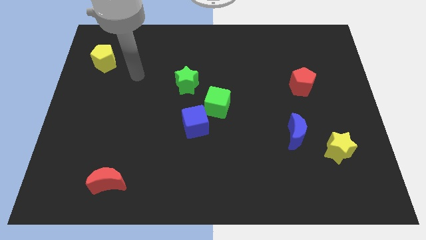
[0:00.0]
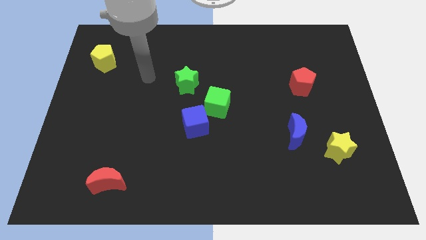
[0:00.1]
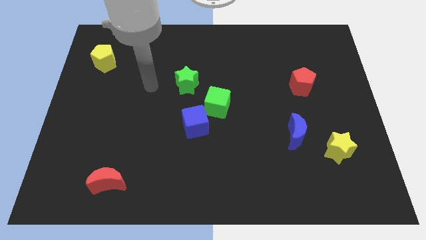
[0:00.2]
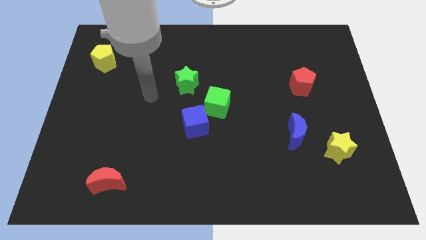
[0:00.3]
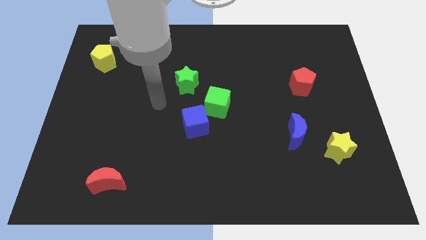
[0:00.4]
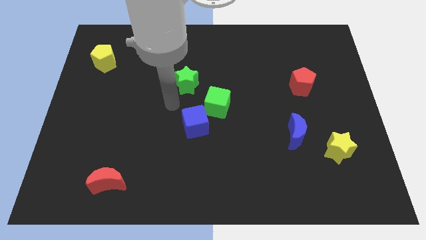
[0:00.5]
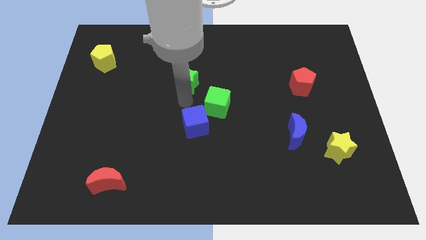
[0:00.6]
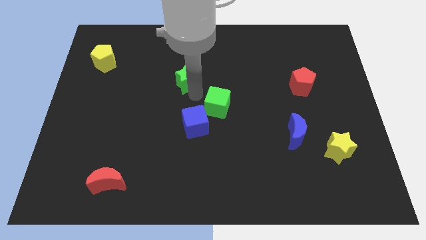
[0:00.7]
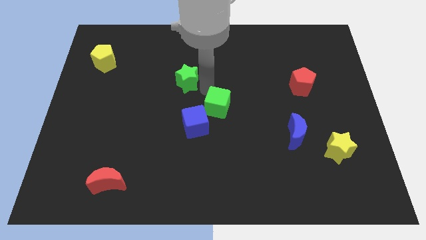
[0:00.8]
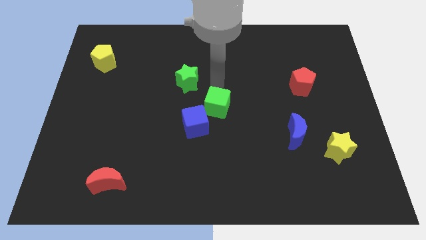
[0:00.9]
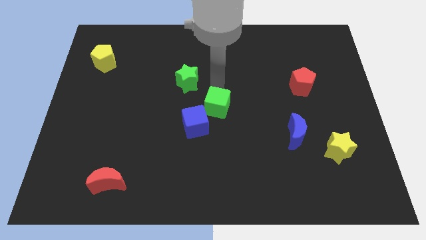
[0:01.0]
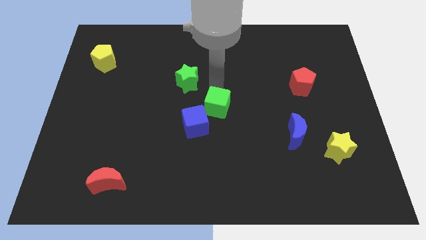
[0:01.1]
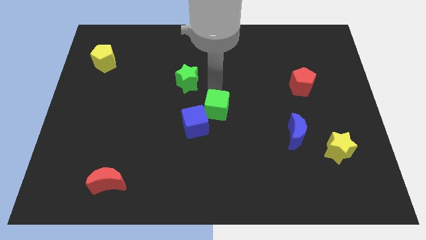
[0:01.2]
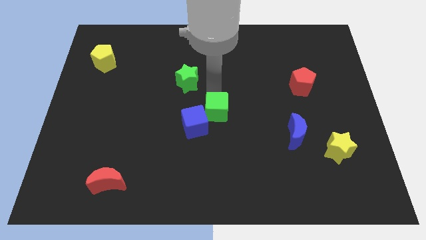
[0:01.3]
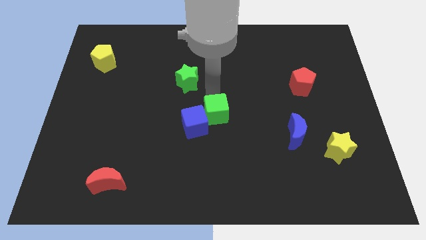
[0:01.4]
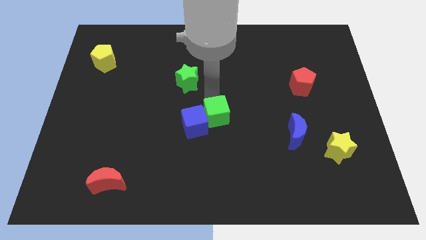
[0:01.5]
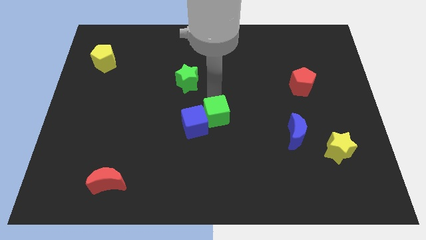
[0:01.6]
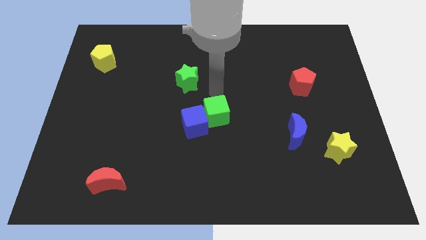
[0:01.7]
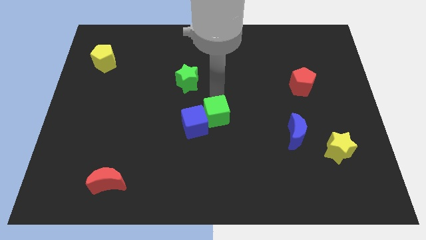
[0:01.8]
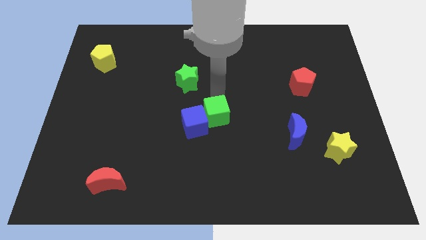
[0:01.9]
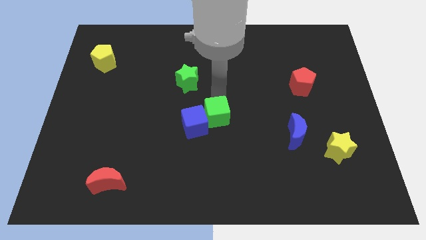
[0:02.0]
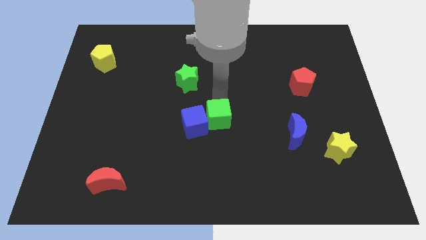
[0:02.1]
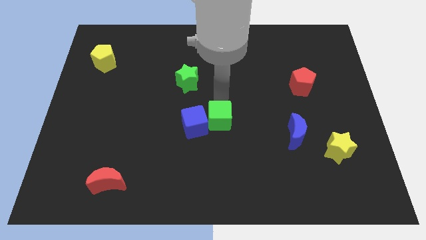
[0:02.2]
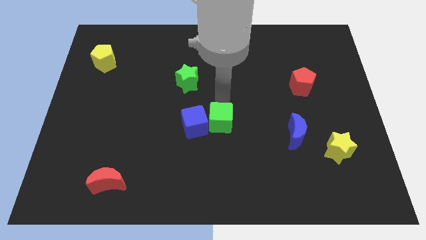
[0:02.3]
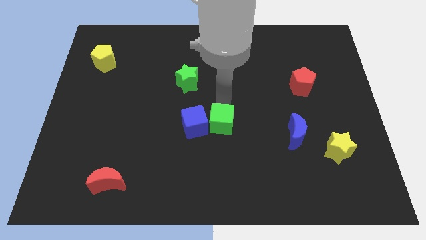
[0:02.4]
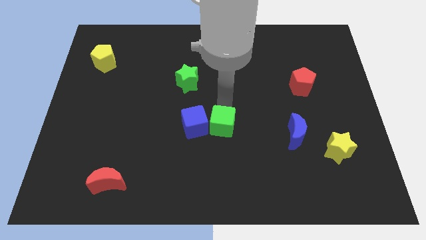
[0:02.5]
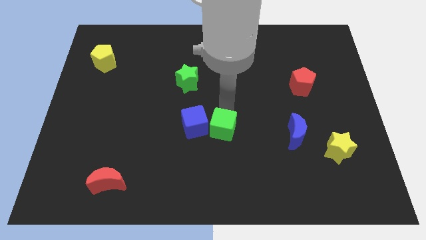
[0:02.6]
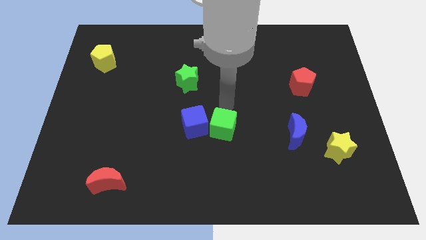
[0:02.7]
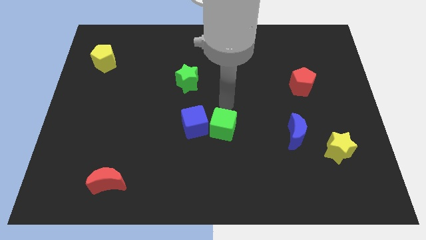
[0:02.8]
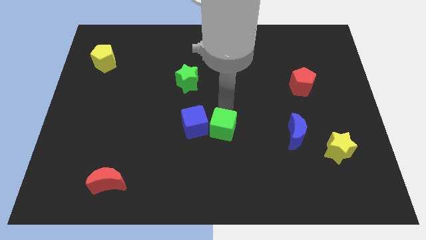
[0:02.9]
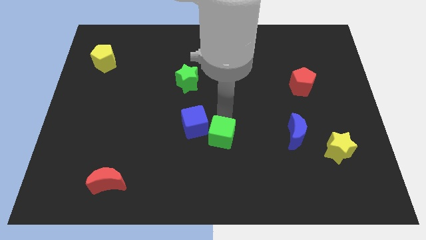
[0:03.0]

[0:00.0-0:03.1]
slightly slide the green cube downwards

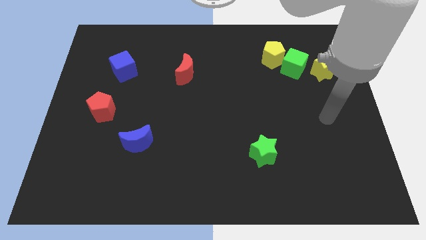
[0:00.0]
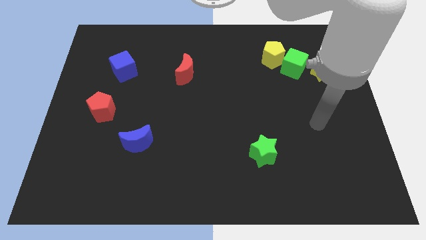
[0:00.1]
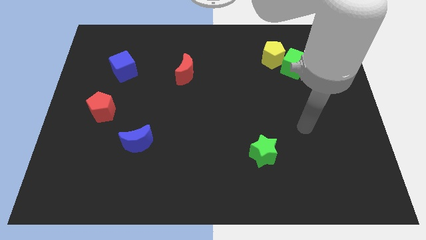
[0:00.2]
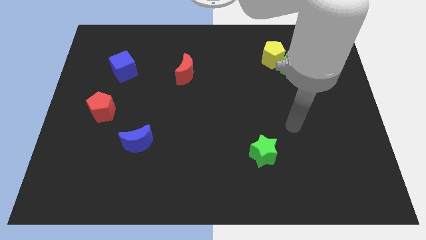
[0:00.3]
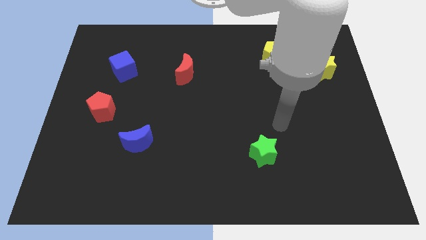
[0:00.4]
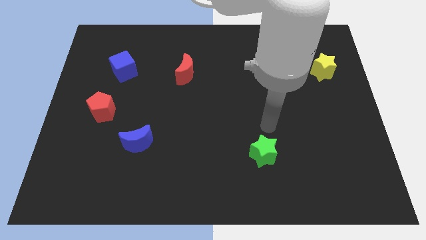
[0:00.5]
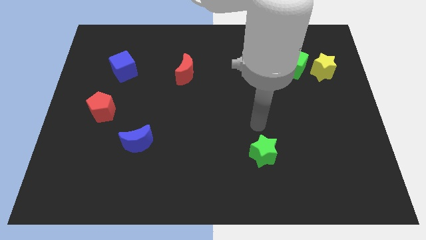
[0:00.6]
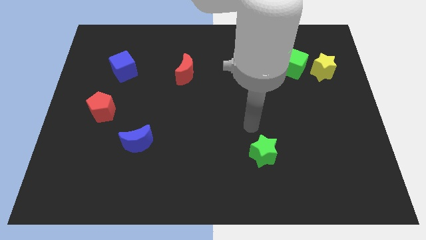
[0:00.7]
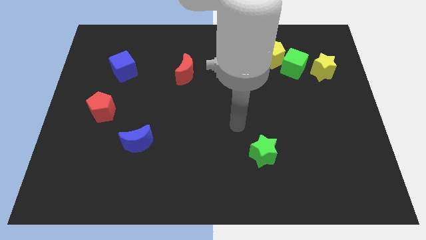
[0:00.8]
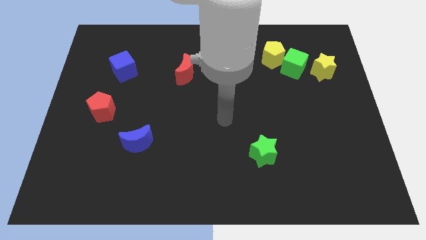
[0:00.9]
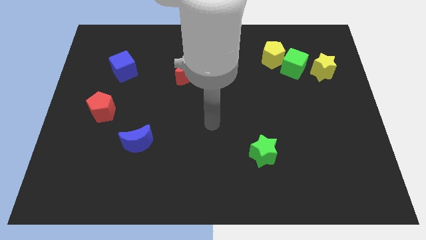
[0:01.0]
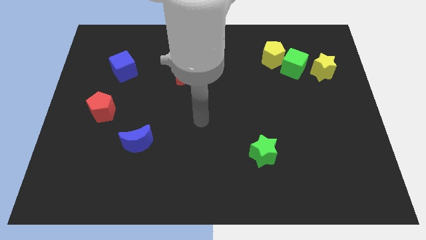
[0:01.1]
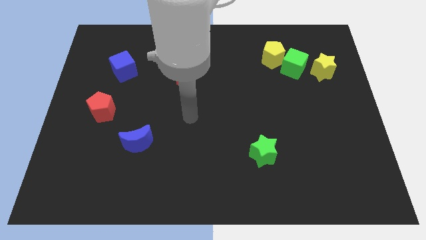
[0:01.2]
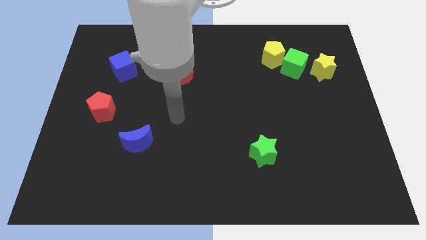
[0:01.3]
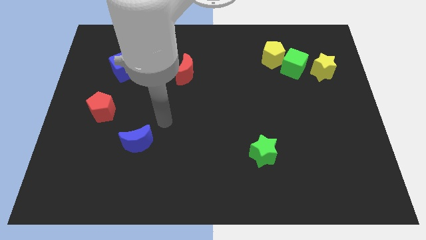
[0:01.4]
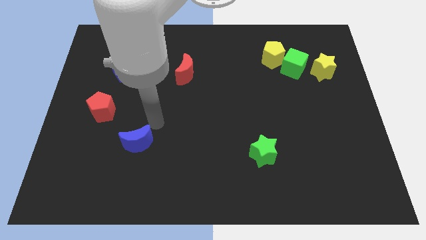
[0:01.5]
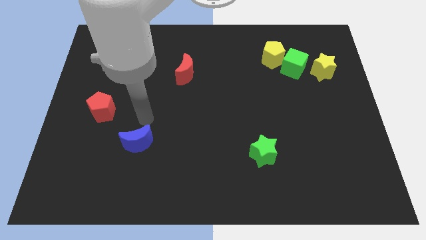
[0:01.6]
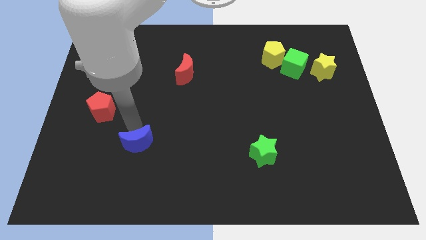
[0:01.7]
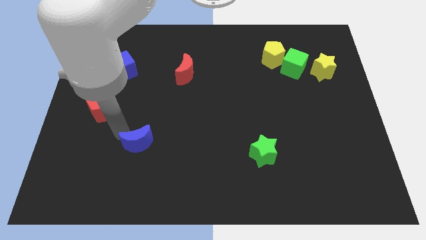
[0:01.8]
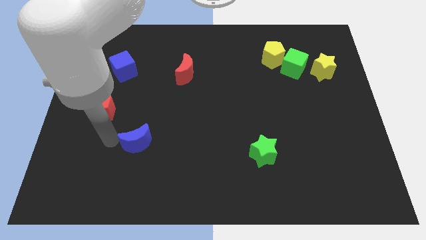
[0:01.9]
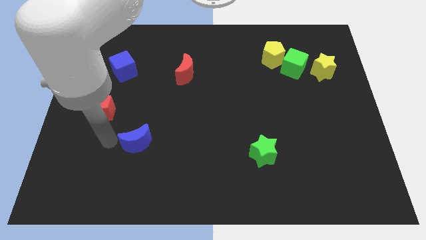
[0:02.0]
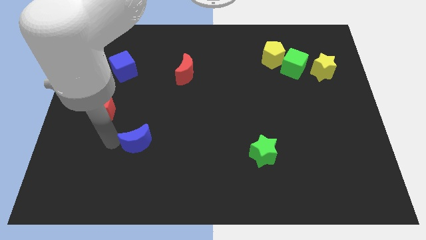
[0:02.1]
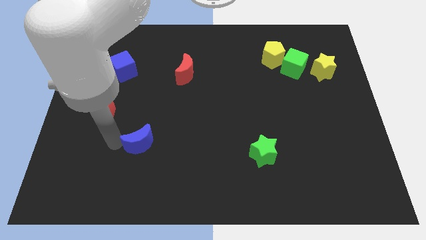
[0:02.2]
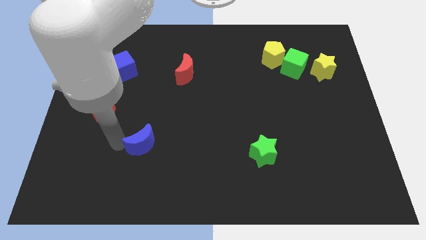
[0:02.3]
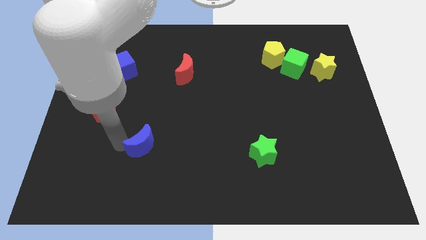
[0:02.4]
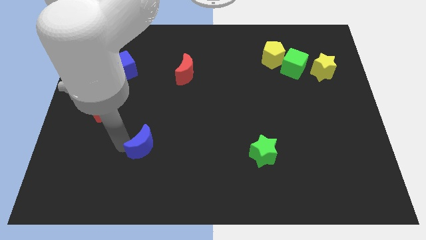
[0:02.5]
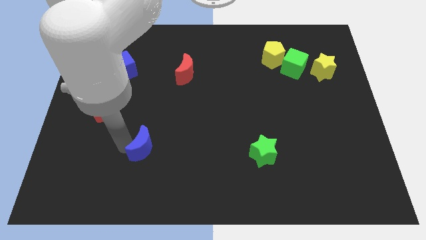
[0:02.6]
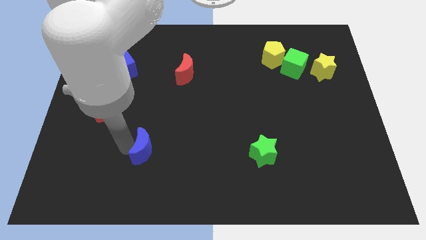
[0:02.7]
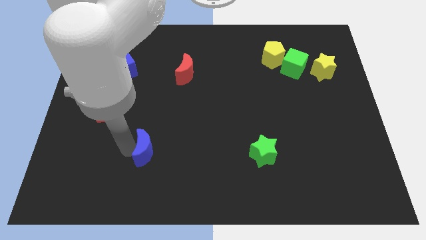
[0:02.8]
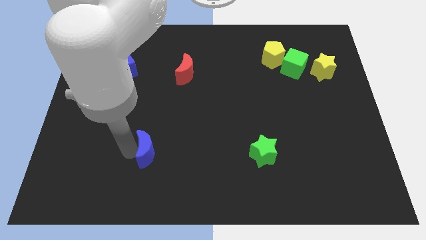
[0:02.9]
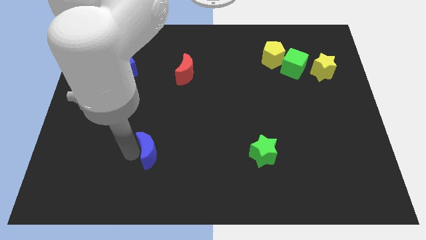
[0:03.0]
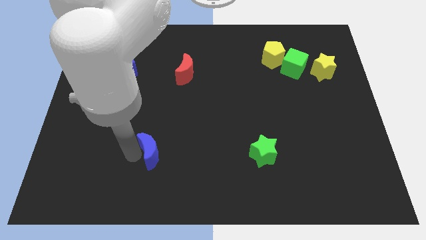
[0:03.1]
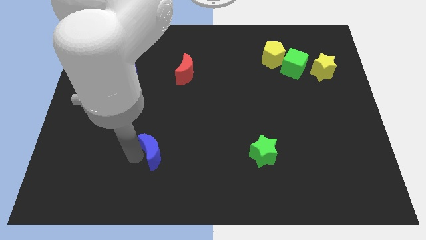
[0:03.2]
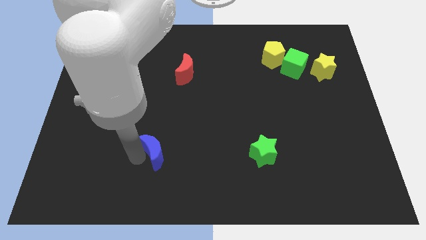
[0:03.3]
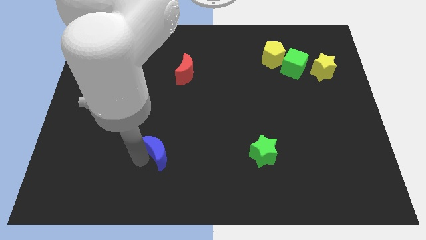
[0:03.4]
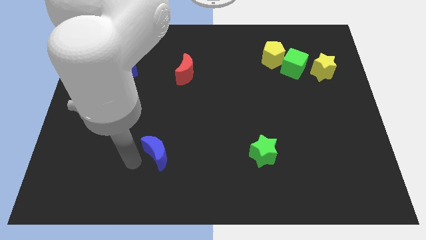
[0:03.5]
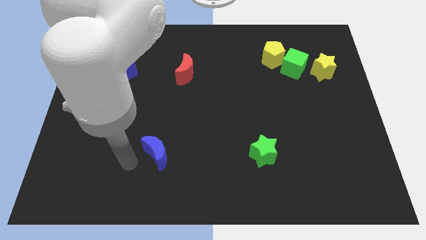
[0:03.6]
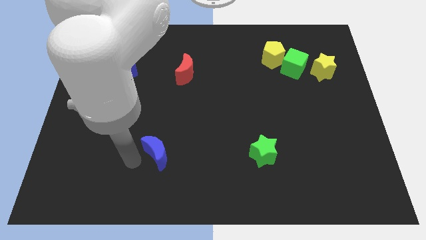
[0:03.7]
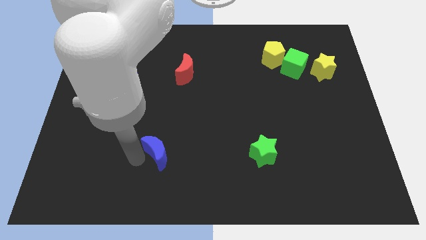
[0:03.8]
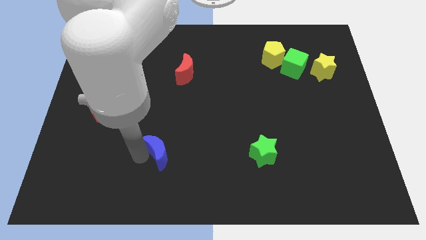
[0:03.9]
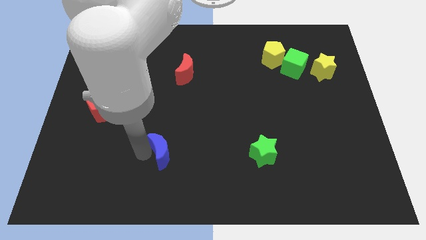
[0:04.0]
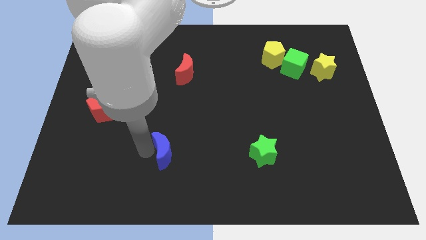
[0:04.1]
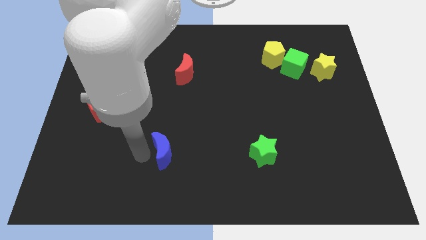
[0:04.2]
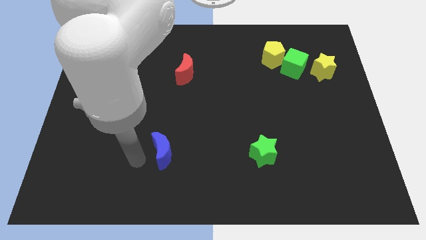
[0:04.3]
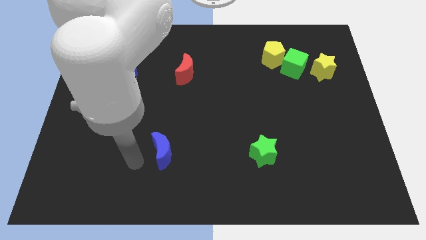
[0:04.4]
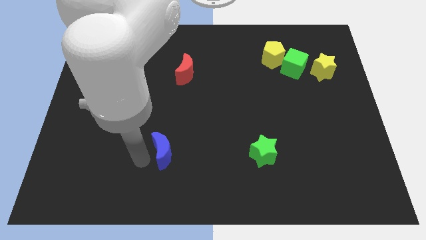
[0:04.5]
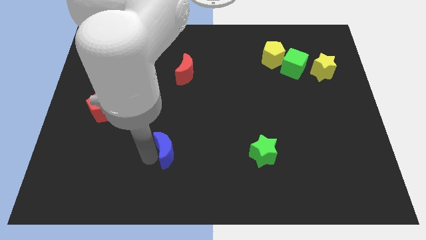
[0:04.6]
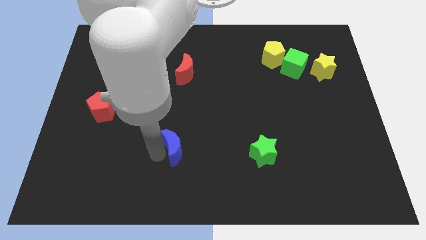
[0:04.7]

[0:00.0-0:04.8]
move the blue moon somewhat to the right

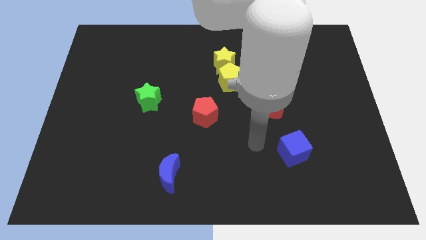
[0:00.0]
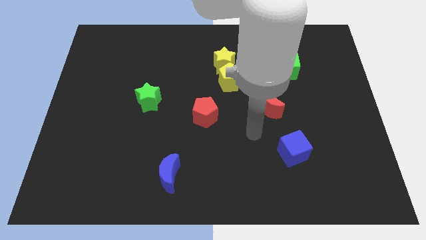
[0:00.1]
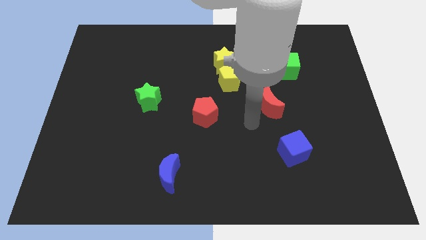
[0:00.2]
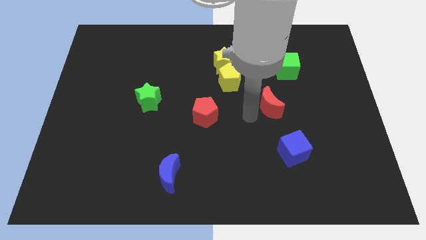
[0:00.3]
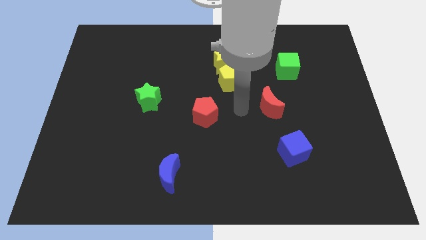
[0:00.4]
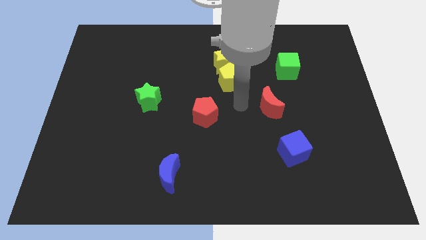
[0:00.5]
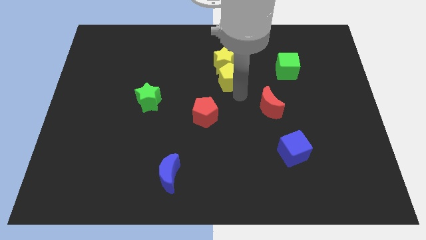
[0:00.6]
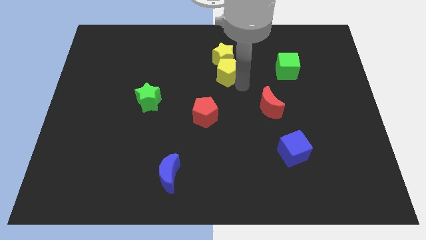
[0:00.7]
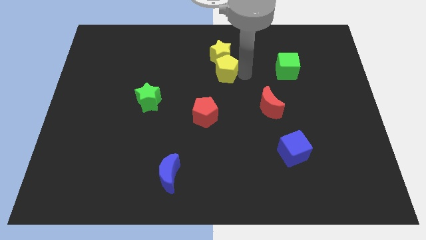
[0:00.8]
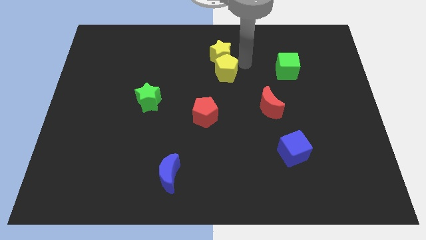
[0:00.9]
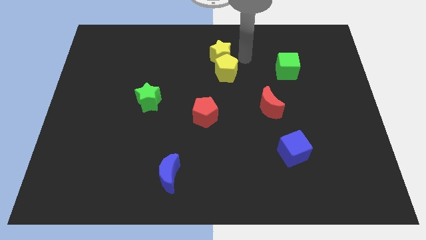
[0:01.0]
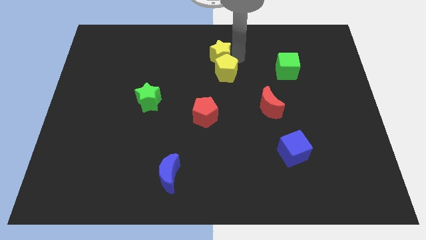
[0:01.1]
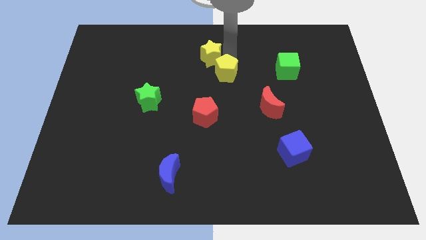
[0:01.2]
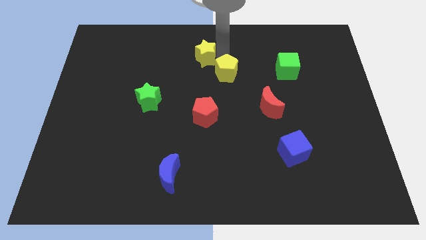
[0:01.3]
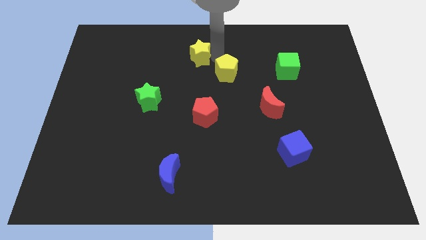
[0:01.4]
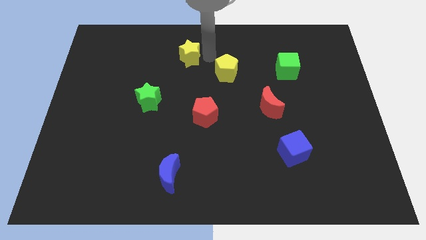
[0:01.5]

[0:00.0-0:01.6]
slide the yellow star a little bit left
